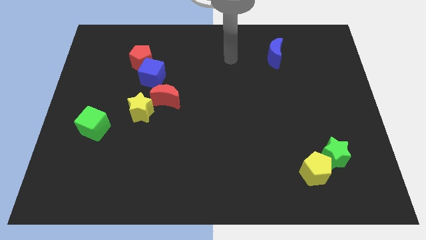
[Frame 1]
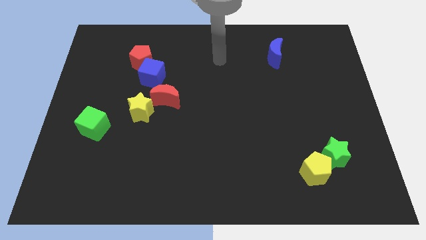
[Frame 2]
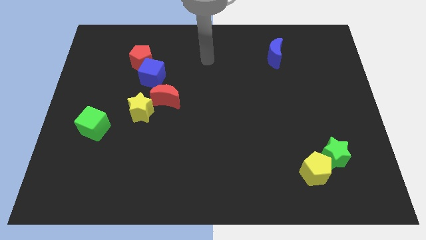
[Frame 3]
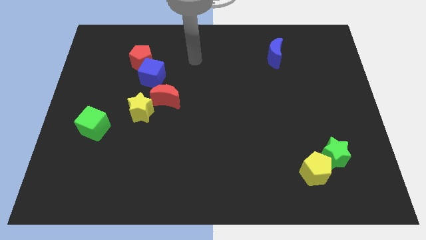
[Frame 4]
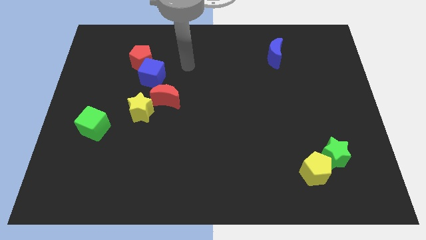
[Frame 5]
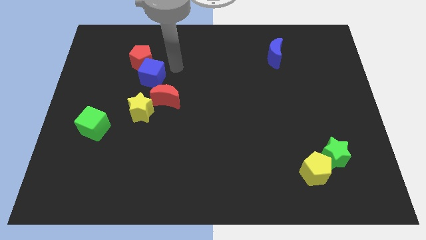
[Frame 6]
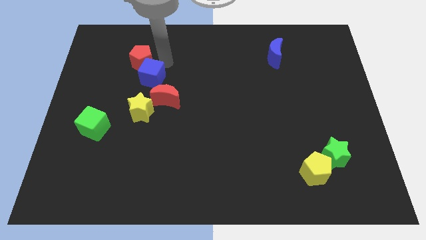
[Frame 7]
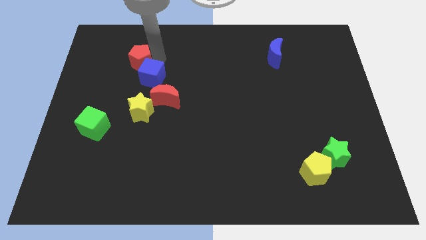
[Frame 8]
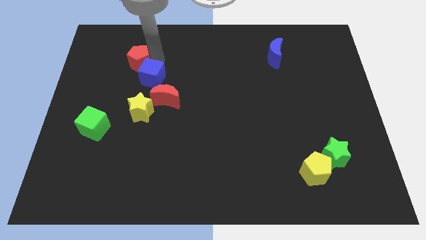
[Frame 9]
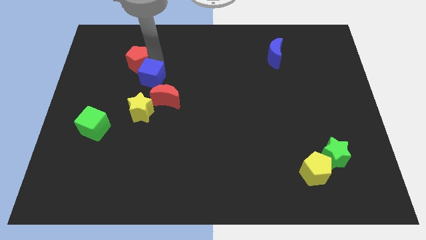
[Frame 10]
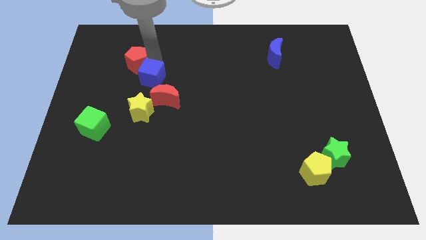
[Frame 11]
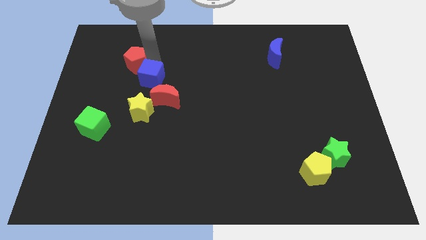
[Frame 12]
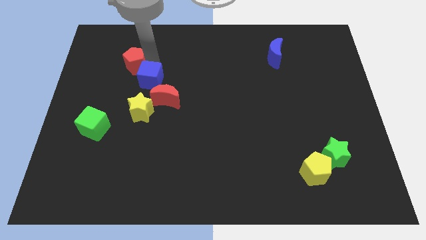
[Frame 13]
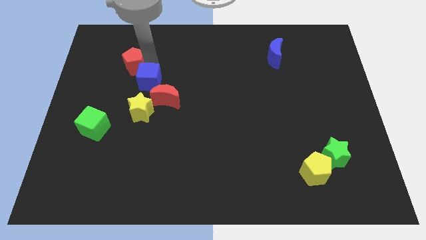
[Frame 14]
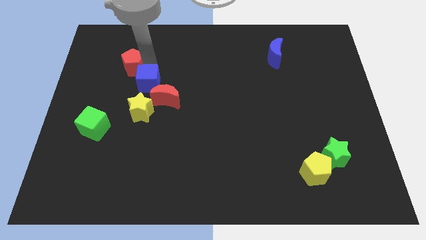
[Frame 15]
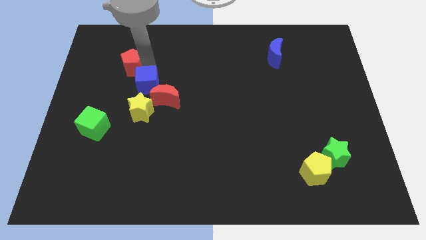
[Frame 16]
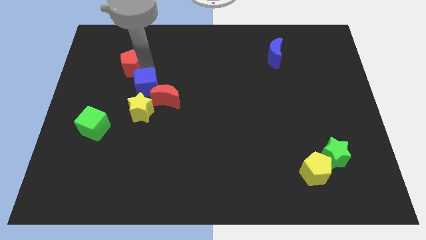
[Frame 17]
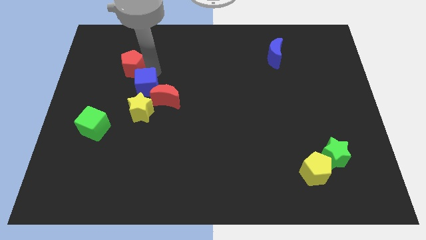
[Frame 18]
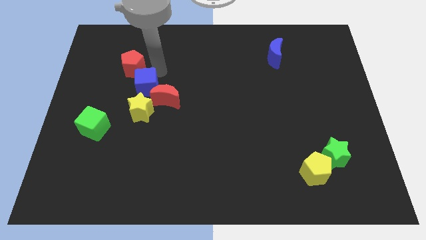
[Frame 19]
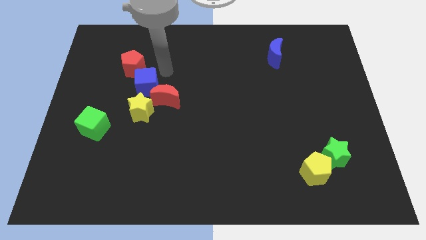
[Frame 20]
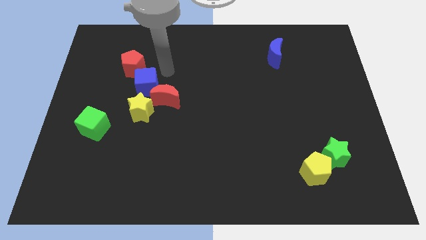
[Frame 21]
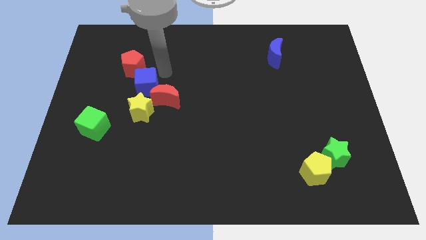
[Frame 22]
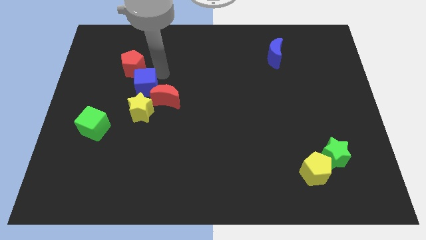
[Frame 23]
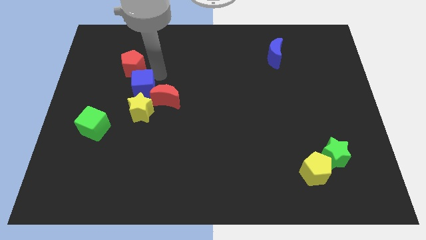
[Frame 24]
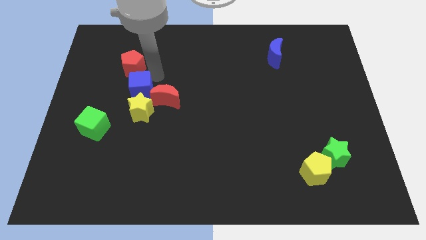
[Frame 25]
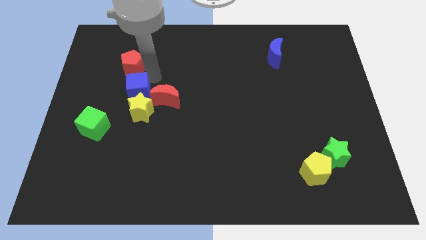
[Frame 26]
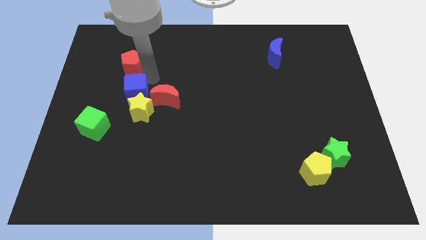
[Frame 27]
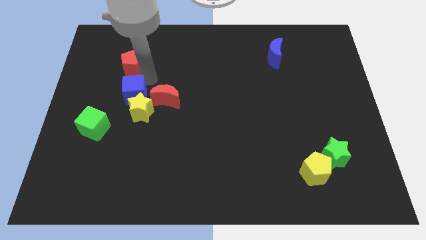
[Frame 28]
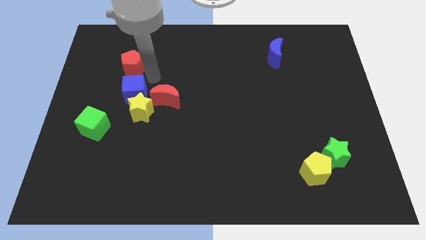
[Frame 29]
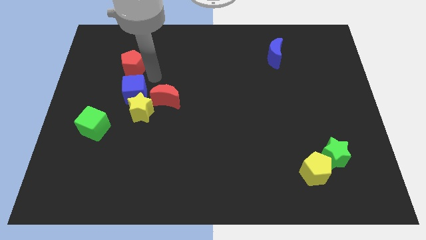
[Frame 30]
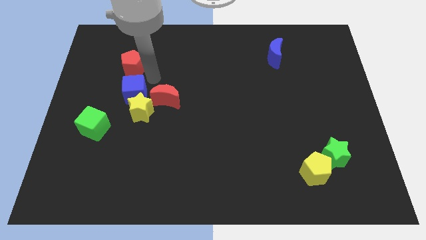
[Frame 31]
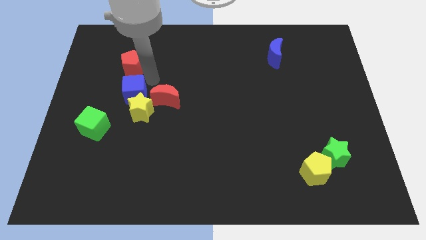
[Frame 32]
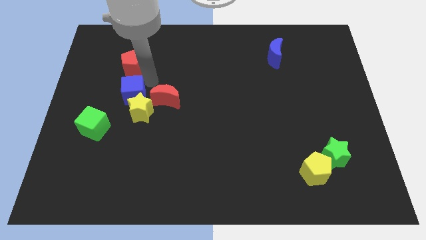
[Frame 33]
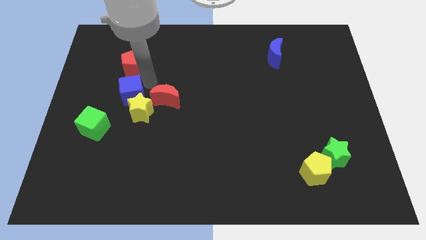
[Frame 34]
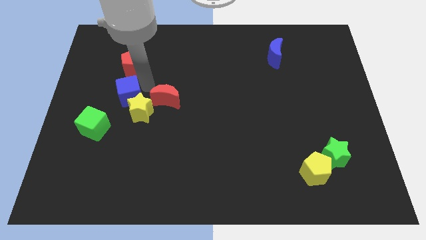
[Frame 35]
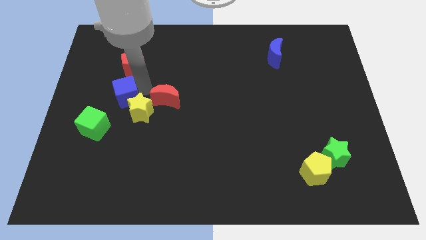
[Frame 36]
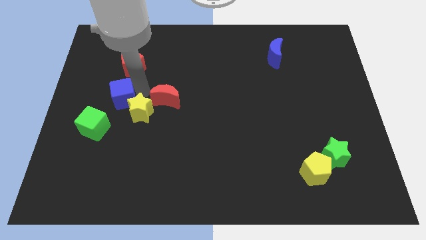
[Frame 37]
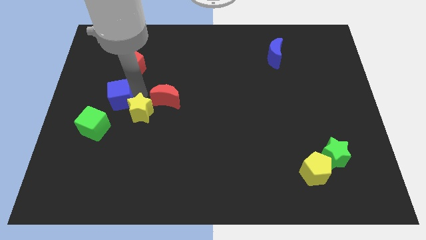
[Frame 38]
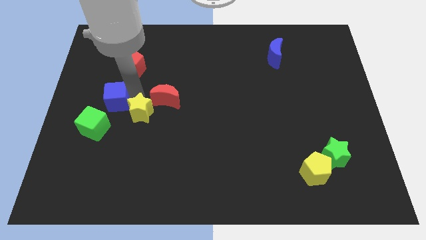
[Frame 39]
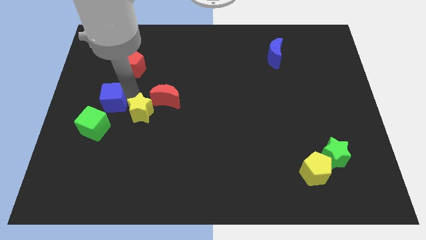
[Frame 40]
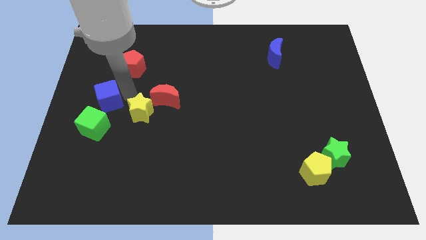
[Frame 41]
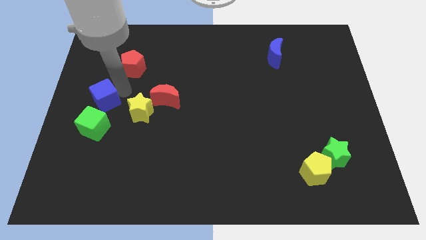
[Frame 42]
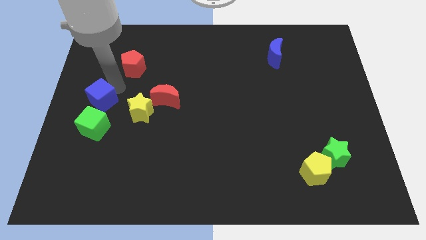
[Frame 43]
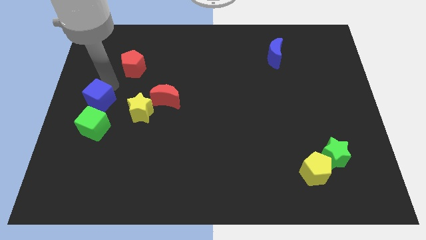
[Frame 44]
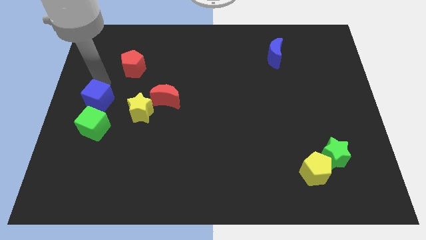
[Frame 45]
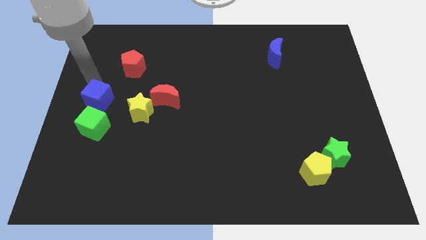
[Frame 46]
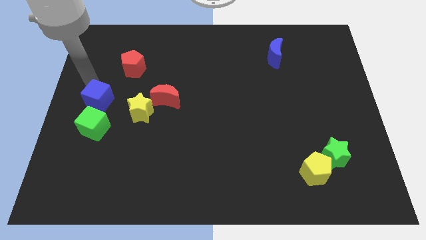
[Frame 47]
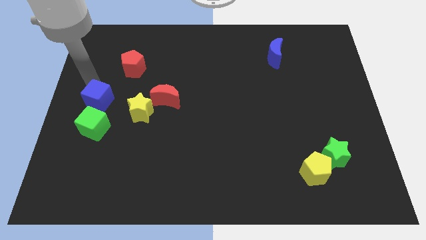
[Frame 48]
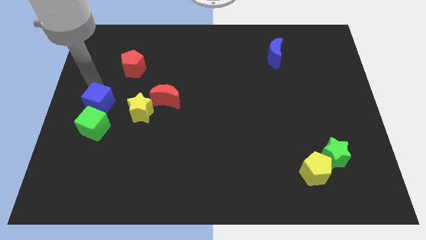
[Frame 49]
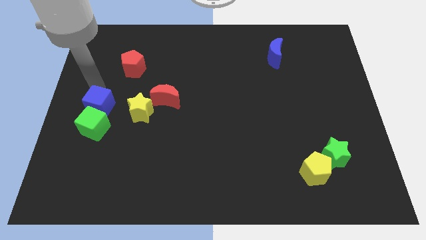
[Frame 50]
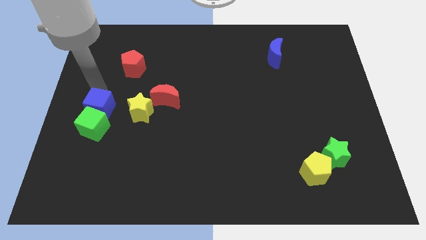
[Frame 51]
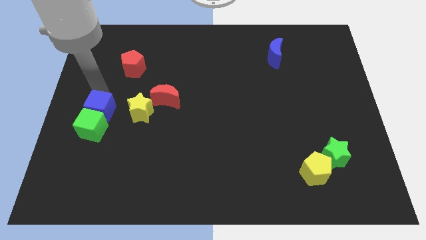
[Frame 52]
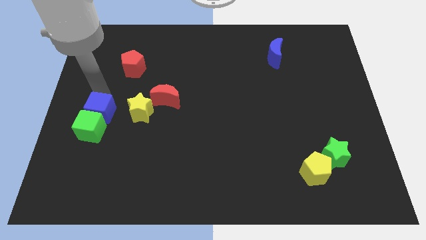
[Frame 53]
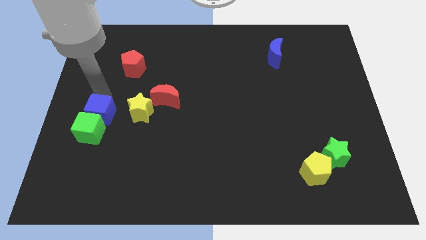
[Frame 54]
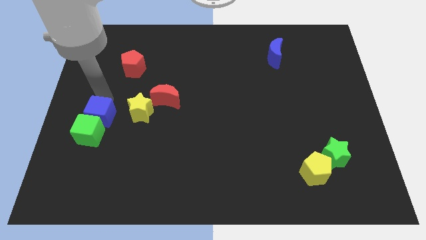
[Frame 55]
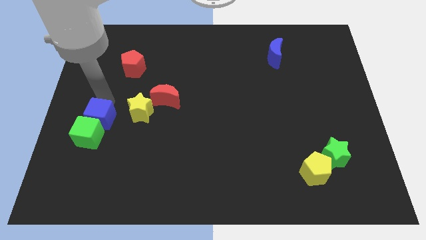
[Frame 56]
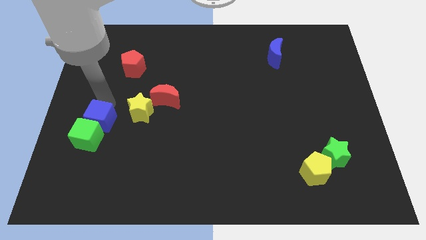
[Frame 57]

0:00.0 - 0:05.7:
slide the blue cube to the bottom left of the yellow star
